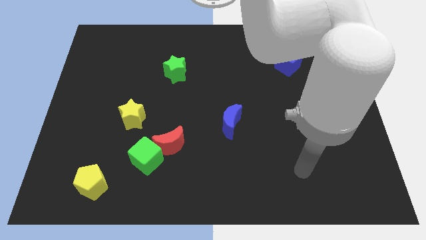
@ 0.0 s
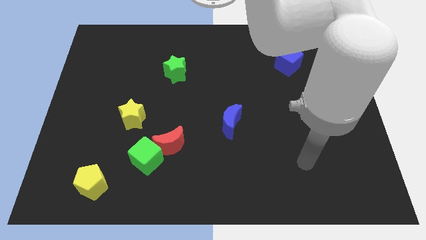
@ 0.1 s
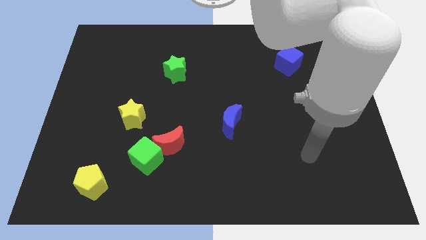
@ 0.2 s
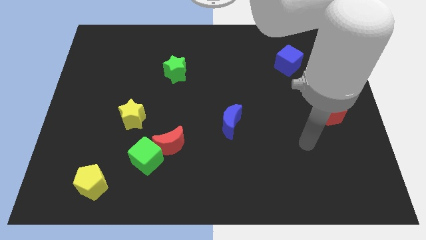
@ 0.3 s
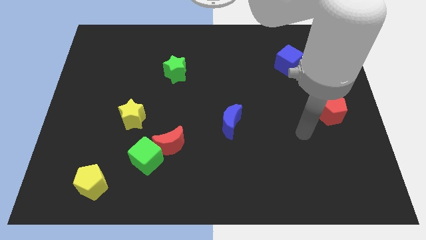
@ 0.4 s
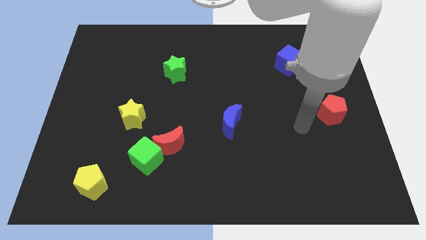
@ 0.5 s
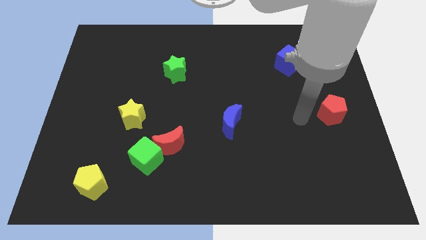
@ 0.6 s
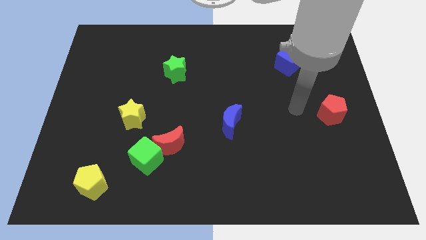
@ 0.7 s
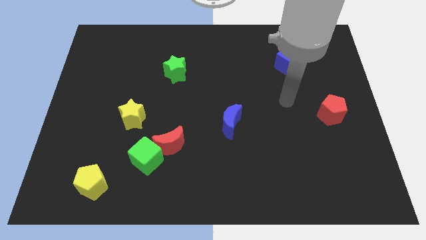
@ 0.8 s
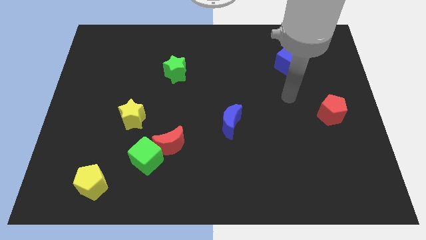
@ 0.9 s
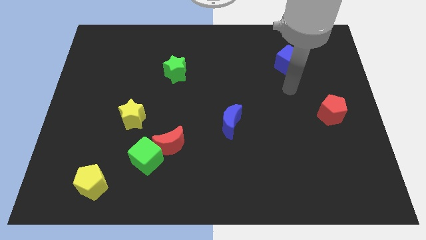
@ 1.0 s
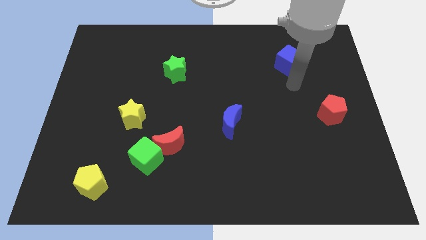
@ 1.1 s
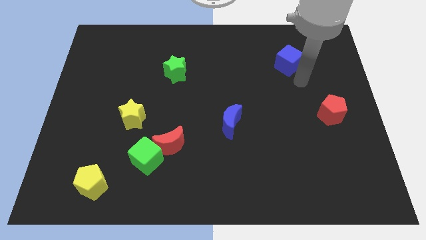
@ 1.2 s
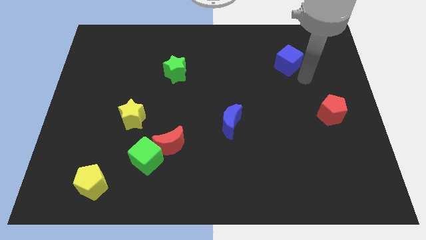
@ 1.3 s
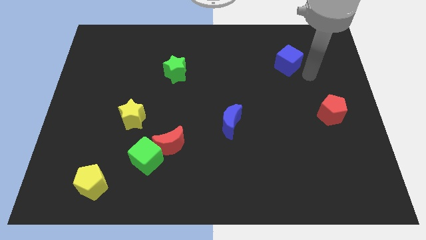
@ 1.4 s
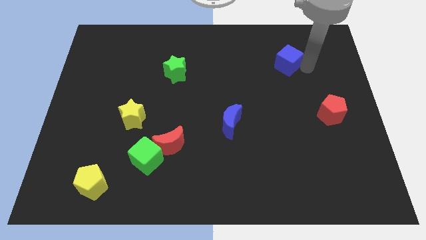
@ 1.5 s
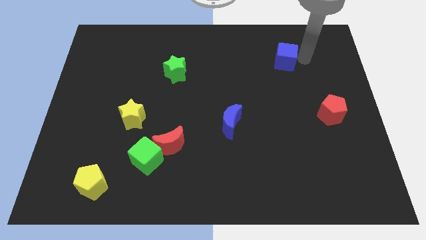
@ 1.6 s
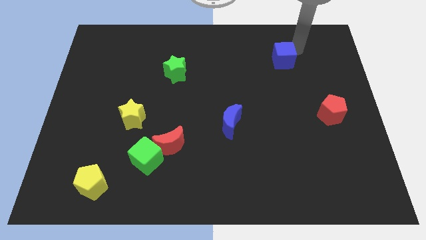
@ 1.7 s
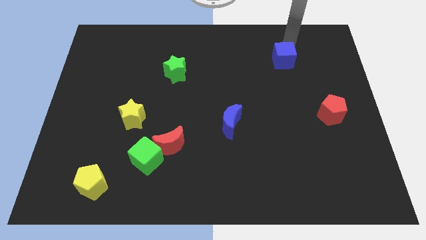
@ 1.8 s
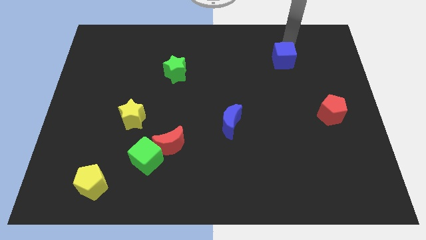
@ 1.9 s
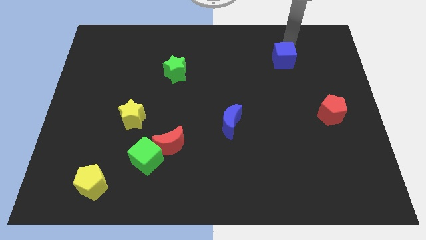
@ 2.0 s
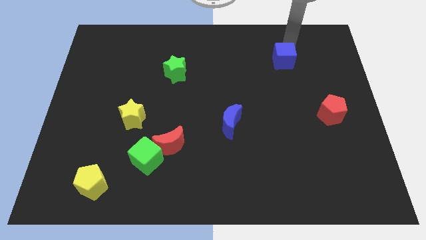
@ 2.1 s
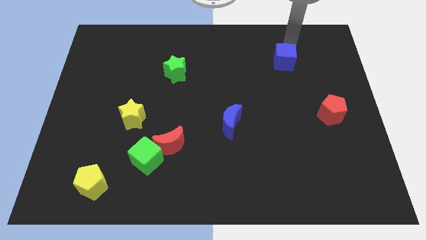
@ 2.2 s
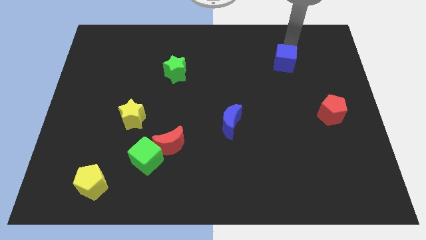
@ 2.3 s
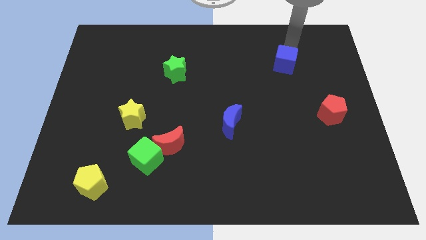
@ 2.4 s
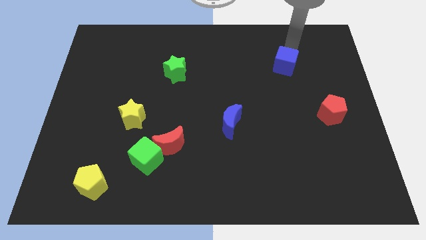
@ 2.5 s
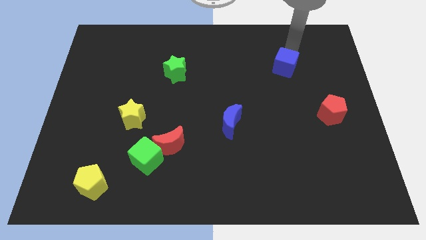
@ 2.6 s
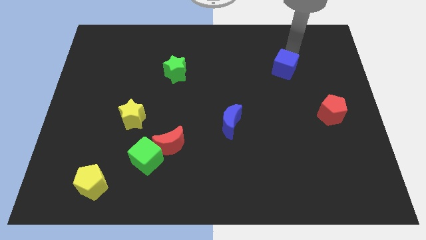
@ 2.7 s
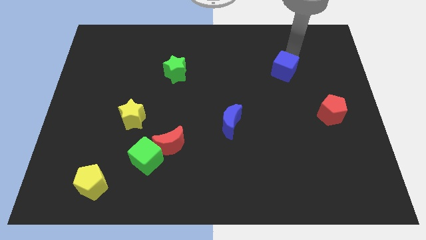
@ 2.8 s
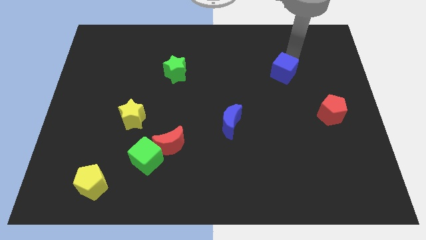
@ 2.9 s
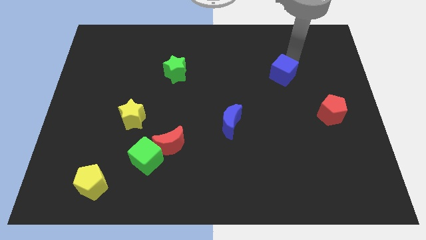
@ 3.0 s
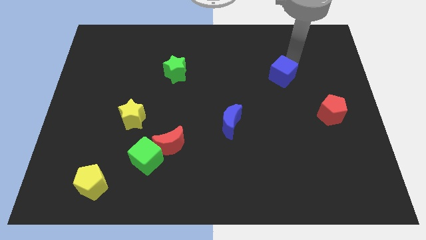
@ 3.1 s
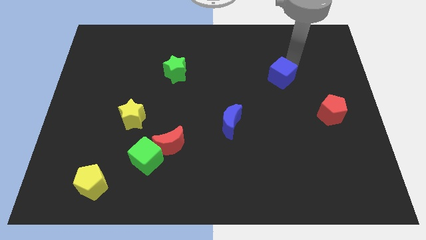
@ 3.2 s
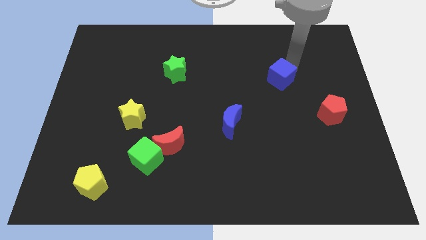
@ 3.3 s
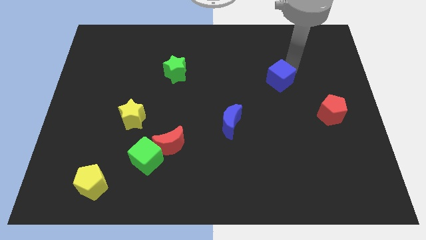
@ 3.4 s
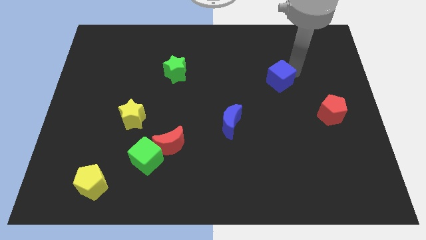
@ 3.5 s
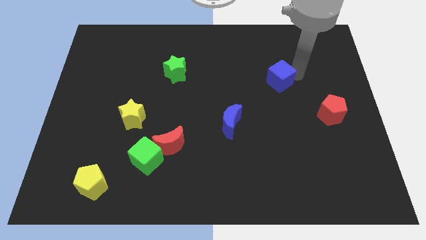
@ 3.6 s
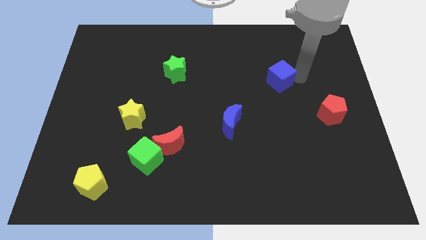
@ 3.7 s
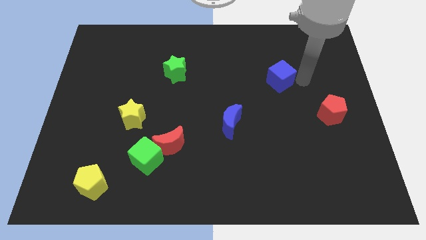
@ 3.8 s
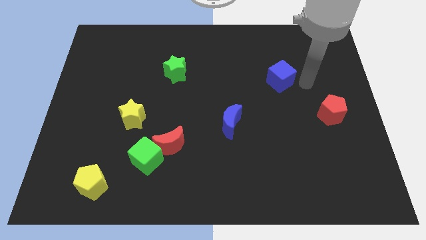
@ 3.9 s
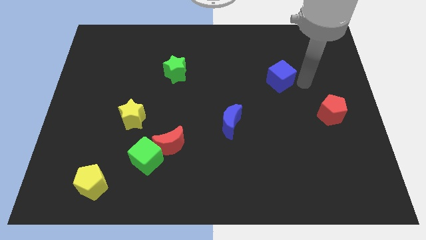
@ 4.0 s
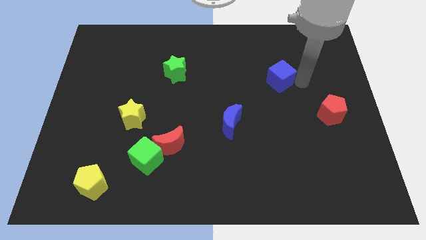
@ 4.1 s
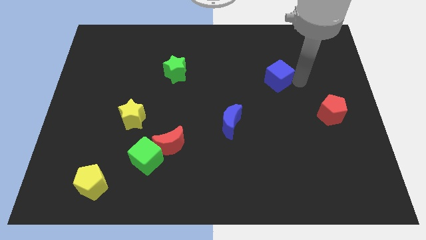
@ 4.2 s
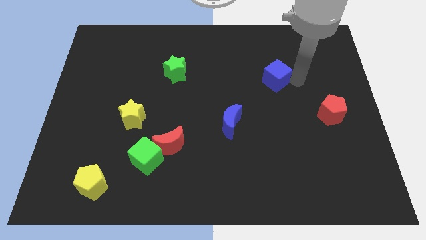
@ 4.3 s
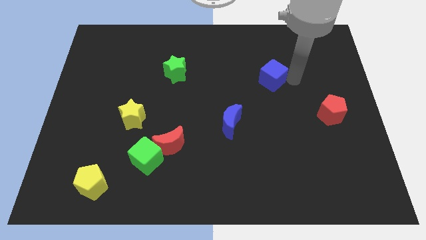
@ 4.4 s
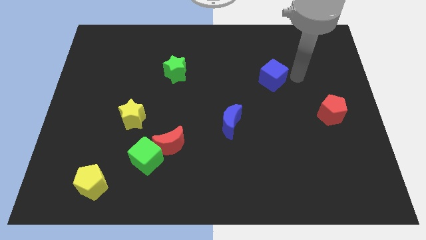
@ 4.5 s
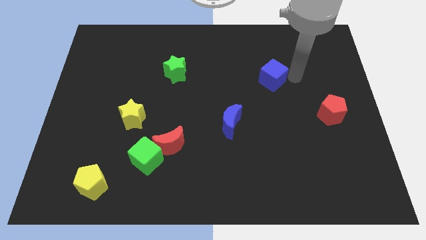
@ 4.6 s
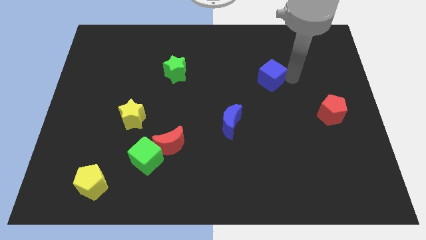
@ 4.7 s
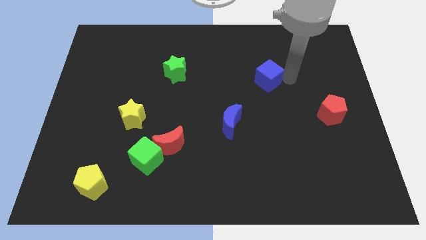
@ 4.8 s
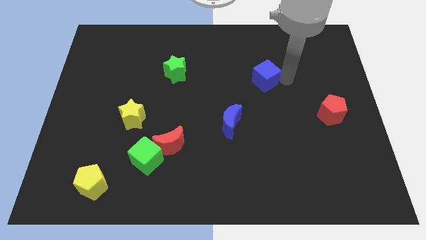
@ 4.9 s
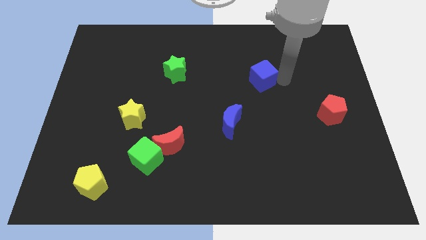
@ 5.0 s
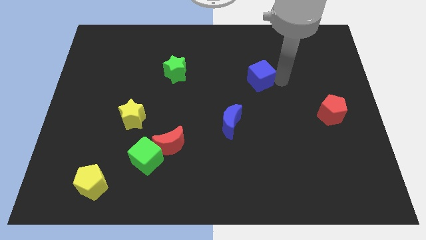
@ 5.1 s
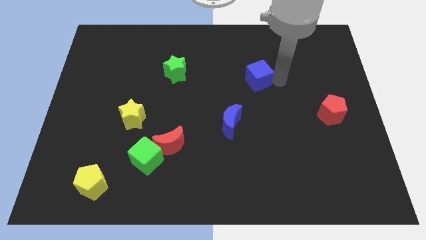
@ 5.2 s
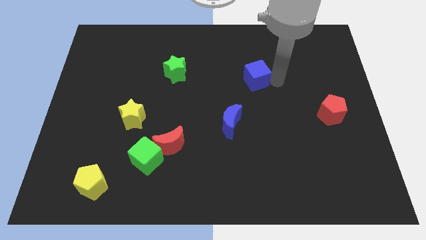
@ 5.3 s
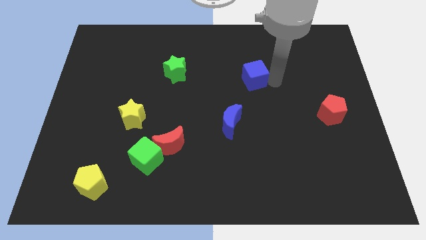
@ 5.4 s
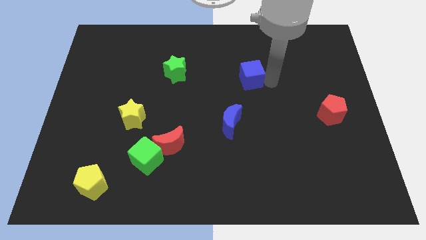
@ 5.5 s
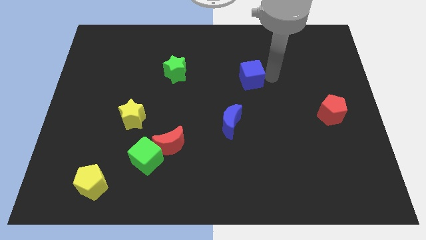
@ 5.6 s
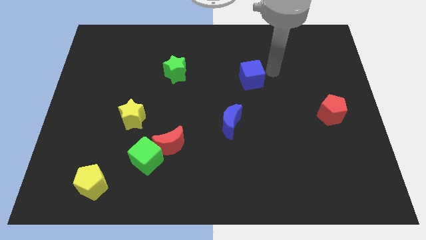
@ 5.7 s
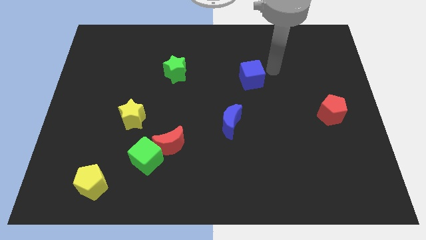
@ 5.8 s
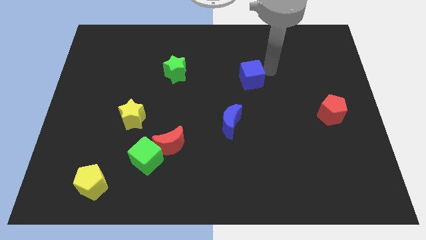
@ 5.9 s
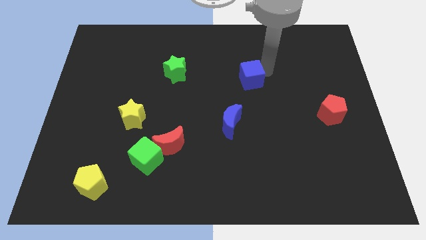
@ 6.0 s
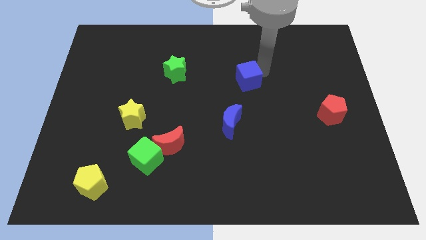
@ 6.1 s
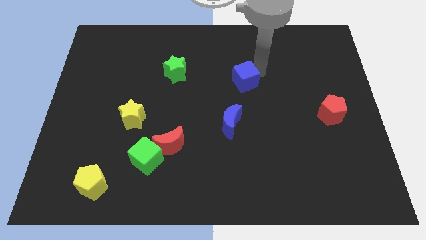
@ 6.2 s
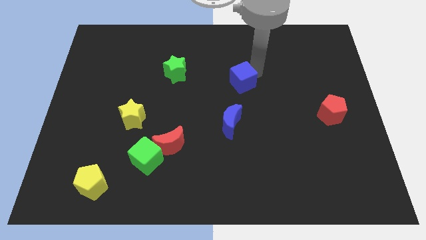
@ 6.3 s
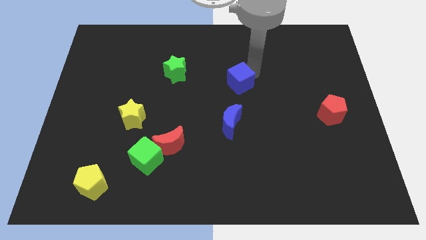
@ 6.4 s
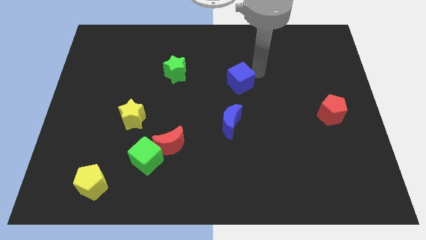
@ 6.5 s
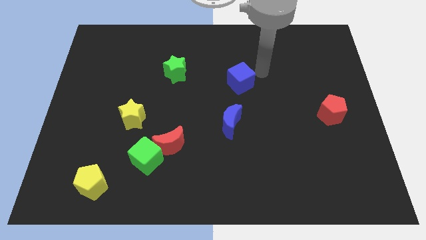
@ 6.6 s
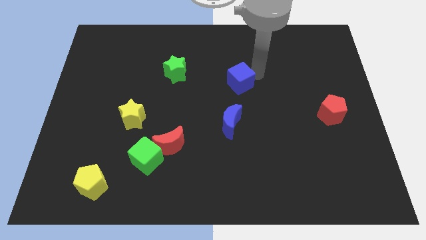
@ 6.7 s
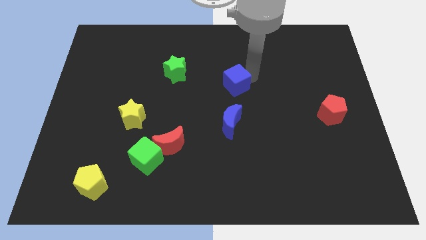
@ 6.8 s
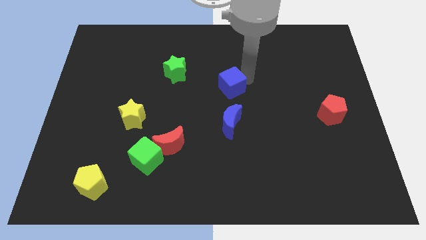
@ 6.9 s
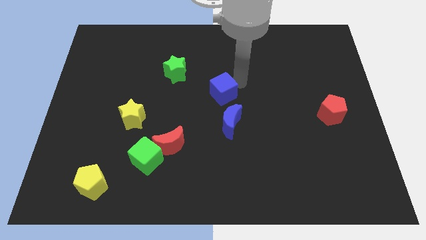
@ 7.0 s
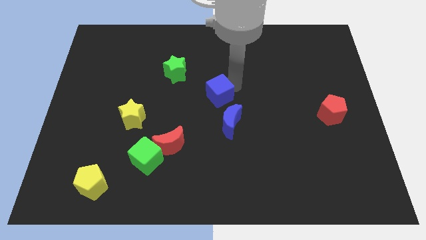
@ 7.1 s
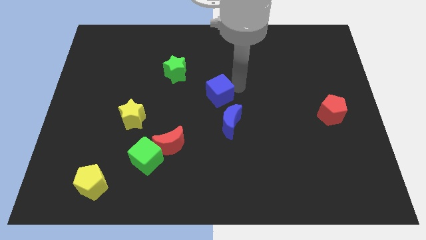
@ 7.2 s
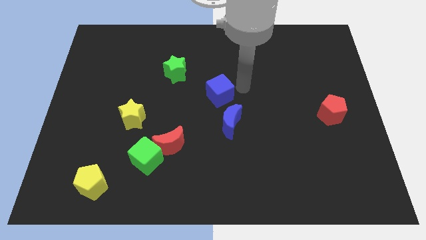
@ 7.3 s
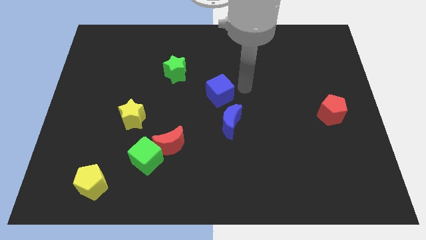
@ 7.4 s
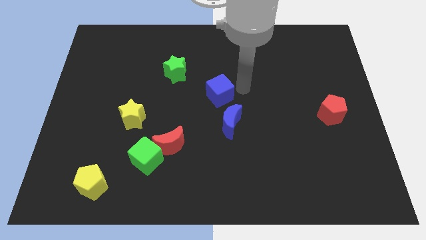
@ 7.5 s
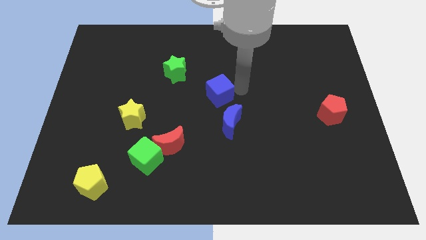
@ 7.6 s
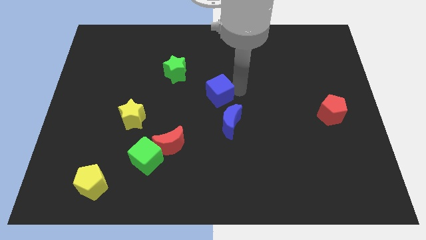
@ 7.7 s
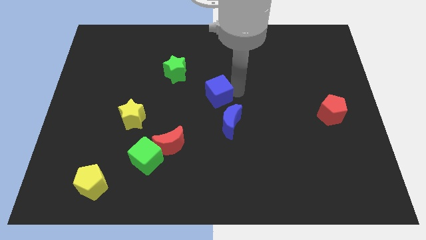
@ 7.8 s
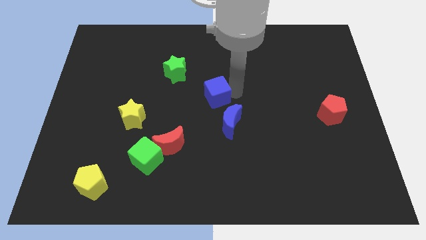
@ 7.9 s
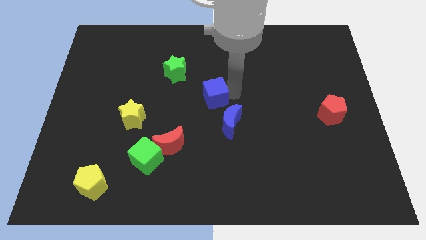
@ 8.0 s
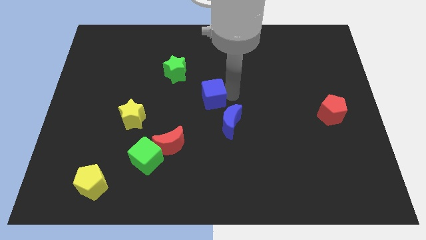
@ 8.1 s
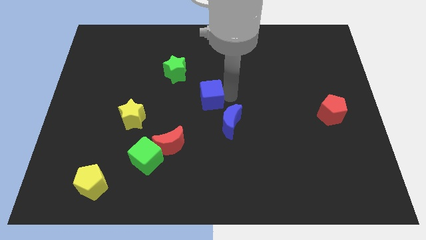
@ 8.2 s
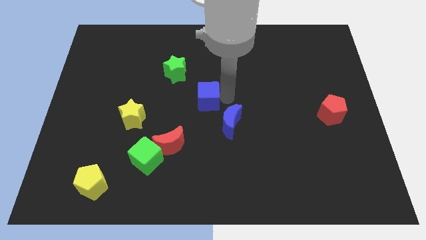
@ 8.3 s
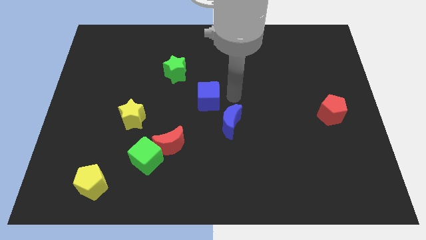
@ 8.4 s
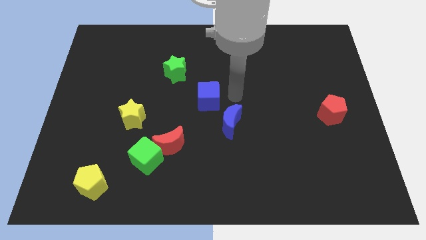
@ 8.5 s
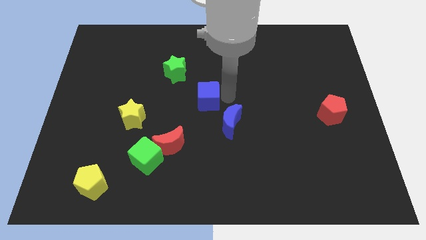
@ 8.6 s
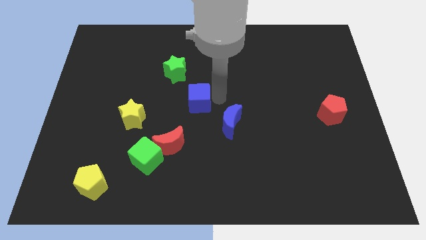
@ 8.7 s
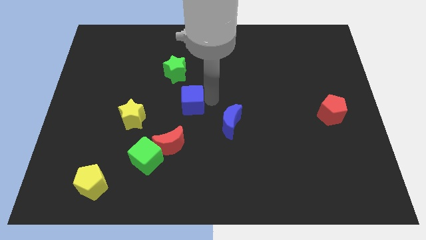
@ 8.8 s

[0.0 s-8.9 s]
push the blue cube to the bottom side of the green star
